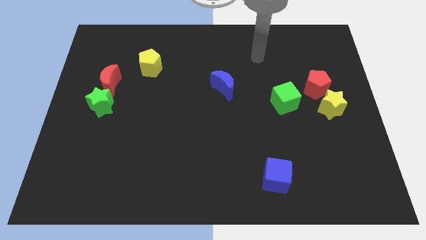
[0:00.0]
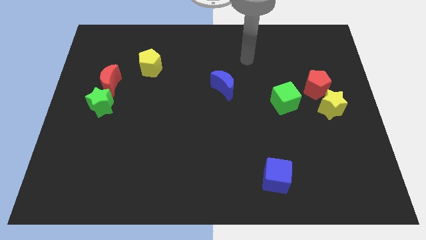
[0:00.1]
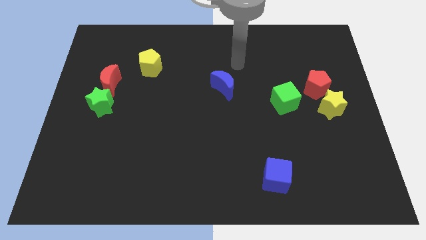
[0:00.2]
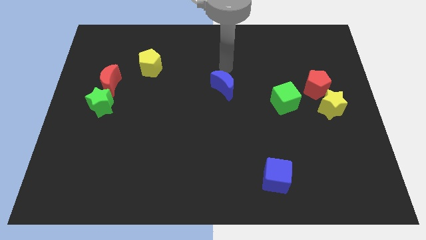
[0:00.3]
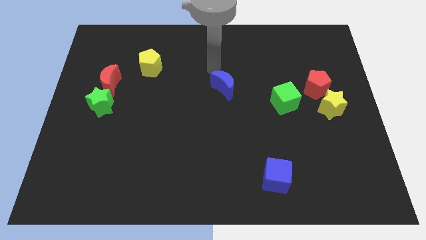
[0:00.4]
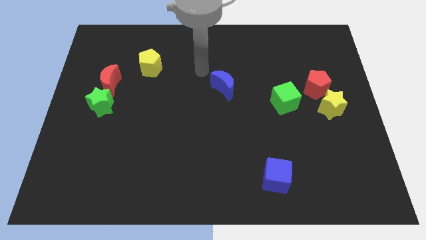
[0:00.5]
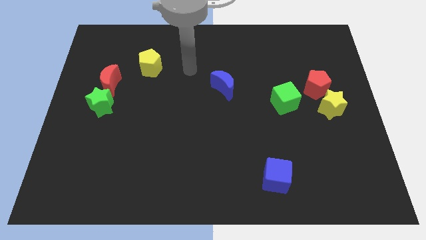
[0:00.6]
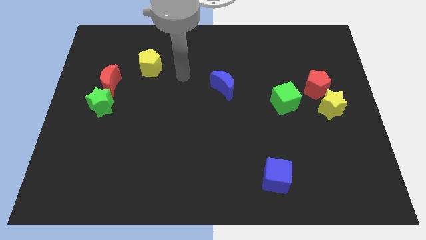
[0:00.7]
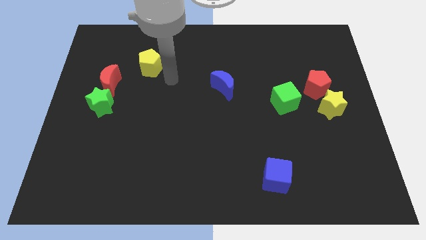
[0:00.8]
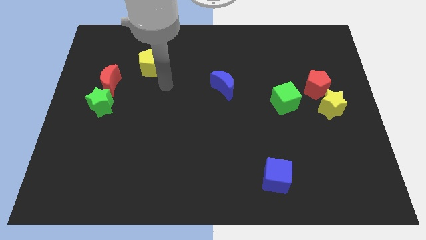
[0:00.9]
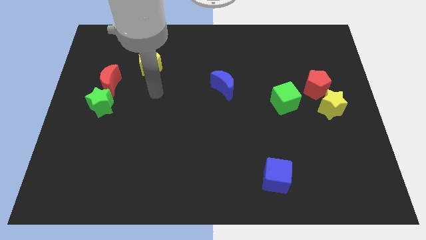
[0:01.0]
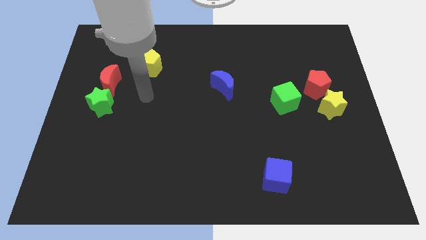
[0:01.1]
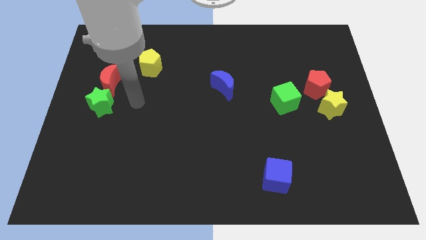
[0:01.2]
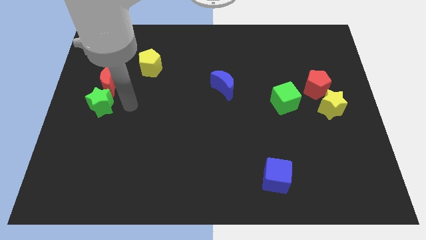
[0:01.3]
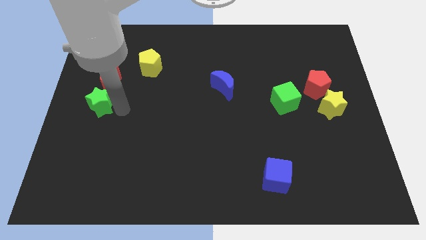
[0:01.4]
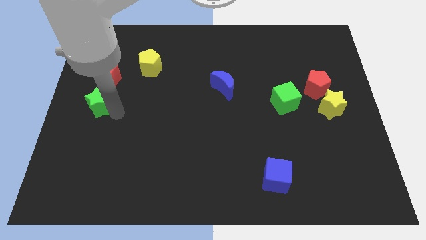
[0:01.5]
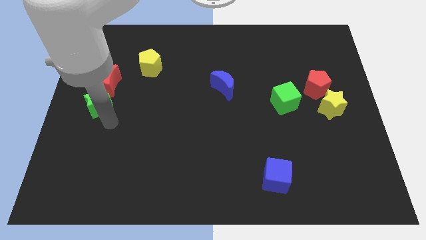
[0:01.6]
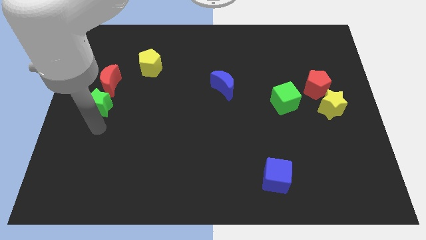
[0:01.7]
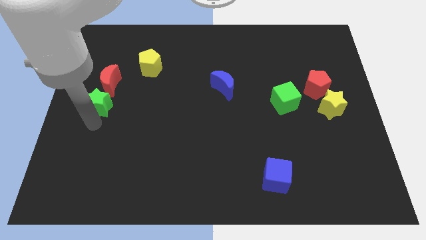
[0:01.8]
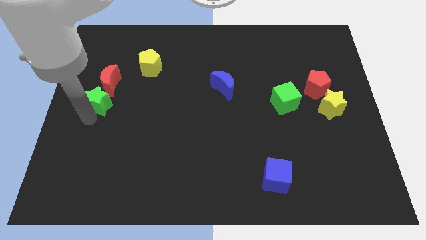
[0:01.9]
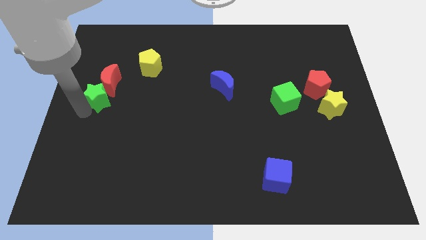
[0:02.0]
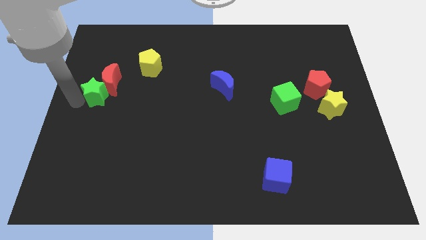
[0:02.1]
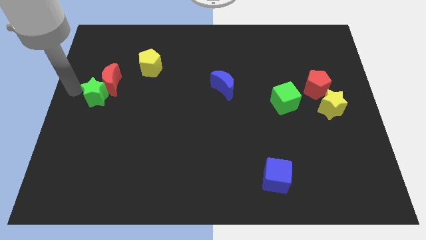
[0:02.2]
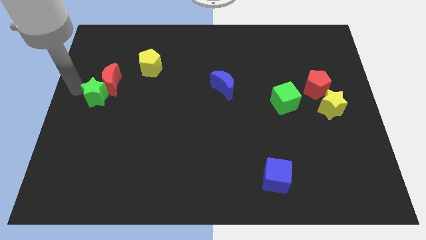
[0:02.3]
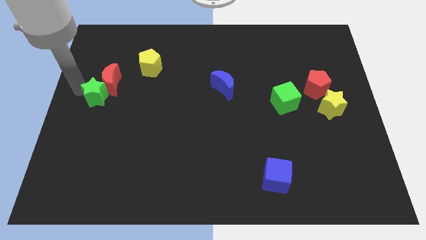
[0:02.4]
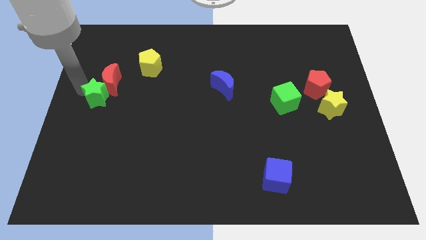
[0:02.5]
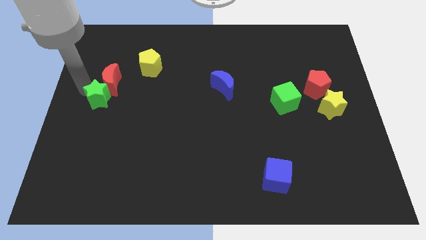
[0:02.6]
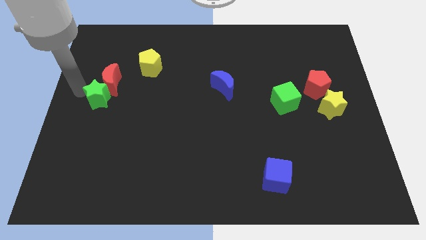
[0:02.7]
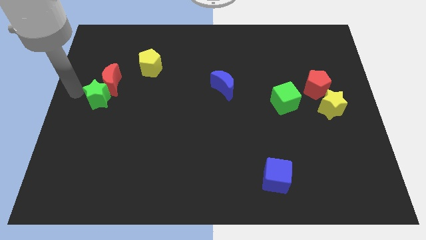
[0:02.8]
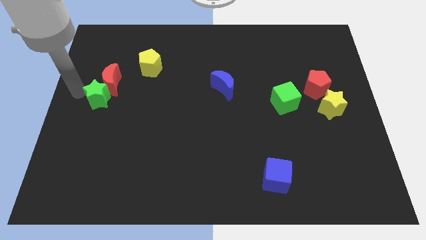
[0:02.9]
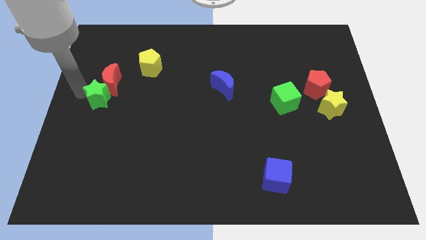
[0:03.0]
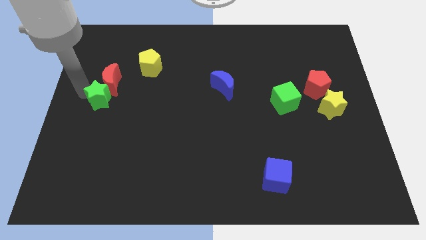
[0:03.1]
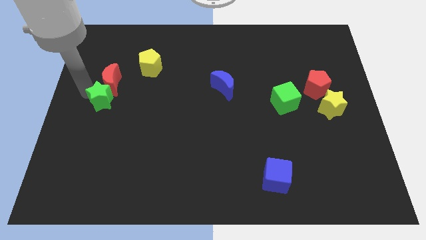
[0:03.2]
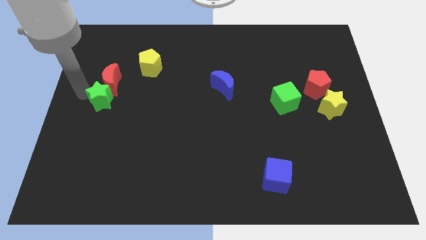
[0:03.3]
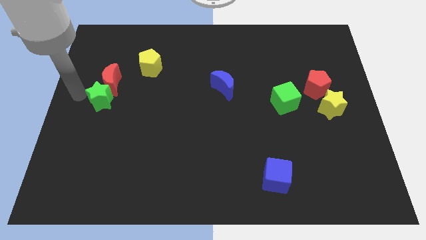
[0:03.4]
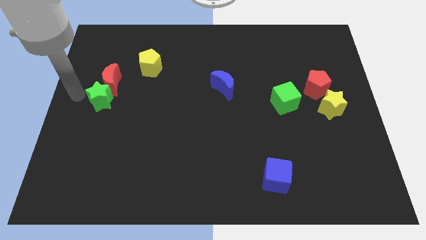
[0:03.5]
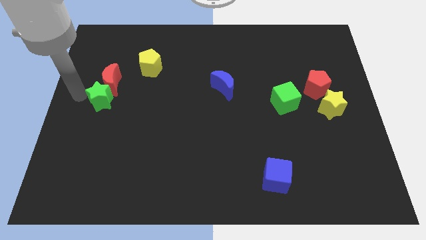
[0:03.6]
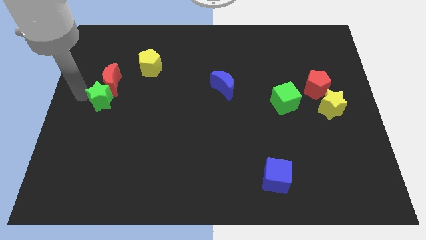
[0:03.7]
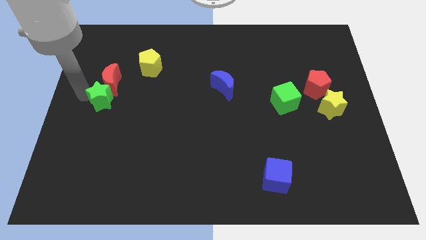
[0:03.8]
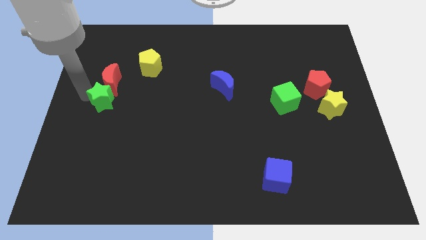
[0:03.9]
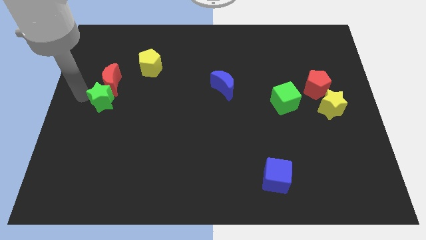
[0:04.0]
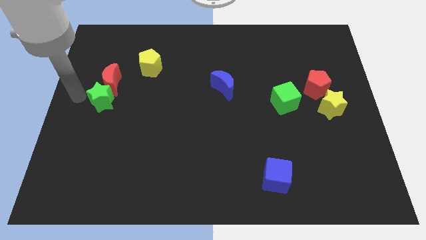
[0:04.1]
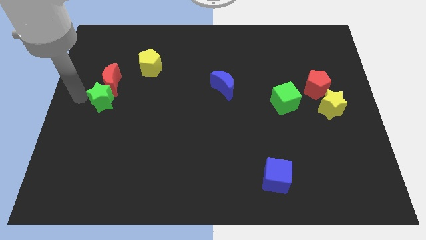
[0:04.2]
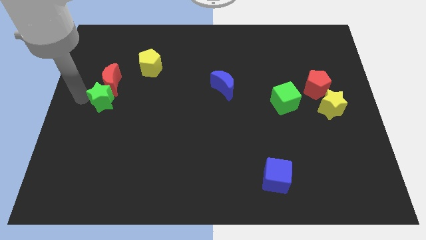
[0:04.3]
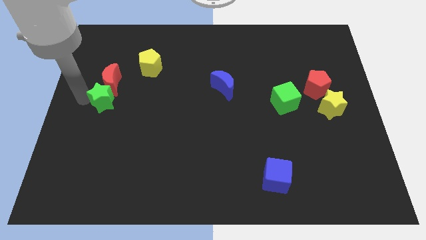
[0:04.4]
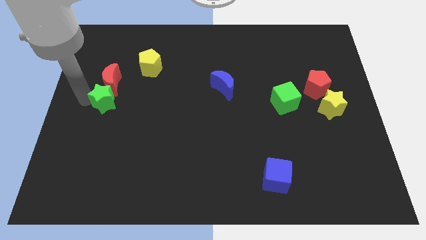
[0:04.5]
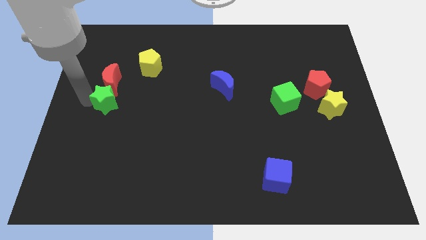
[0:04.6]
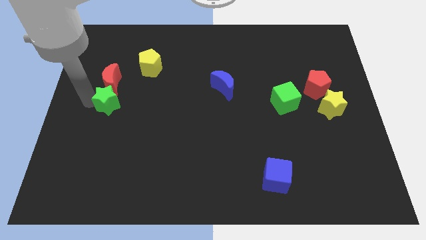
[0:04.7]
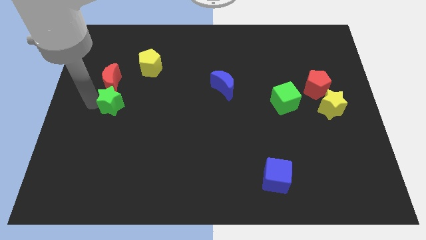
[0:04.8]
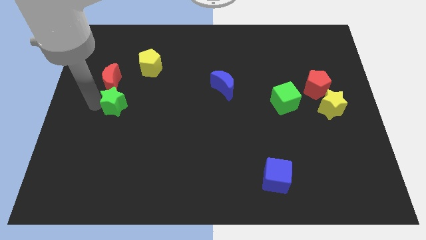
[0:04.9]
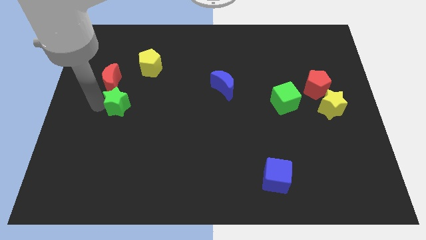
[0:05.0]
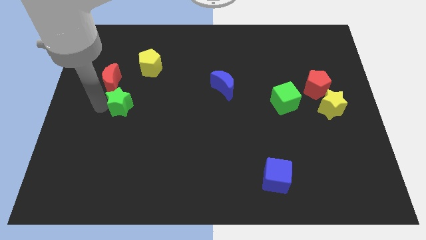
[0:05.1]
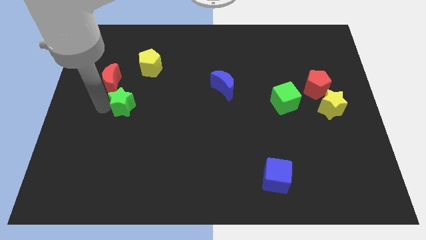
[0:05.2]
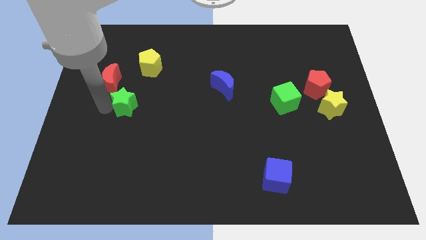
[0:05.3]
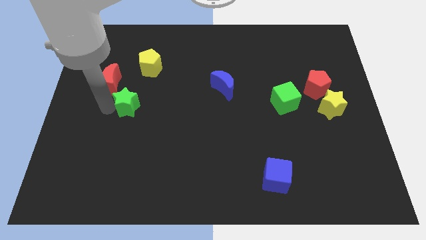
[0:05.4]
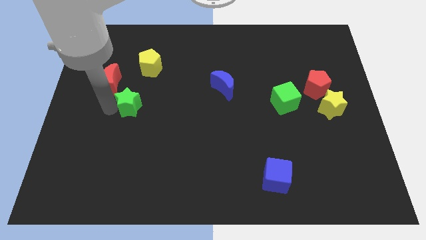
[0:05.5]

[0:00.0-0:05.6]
slide the green star a little to the right

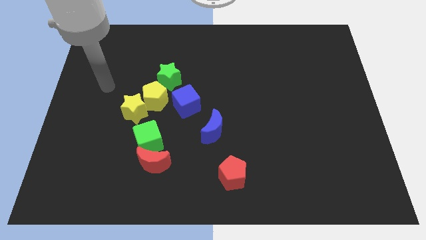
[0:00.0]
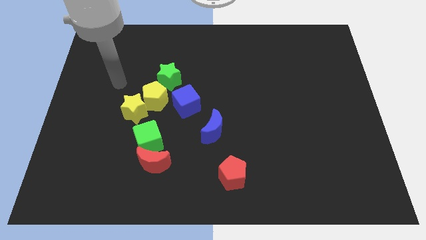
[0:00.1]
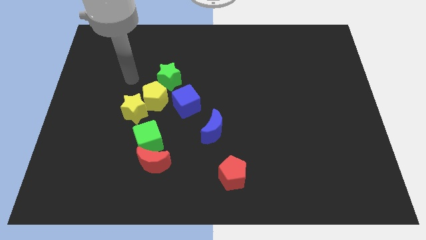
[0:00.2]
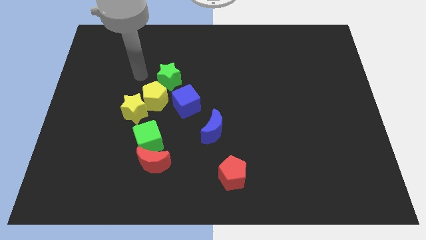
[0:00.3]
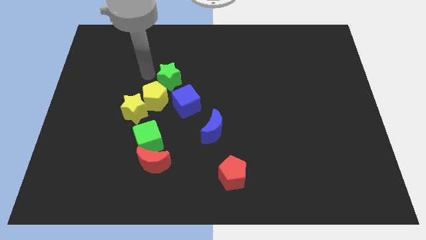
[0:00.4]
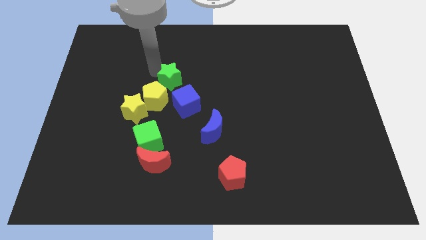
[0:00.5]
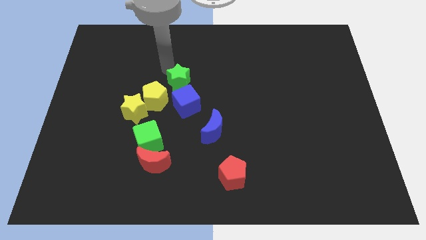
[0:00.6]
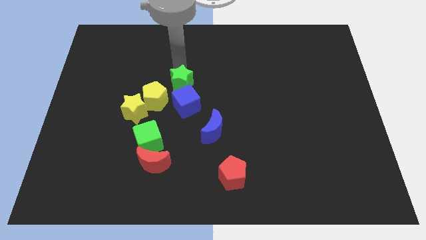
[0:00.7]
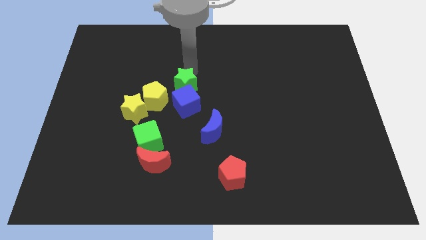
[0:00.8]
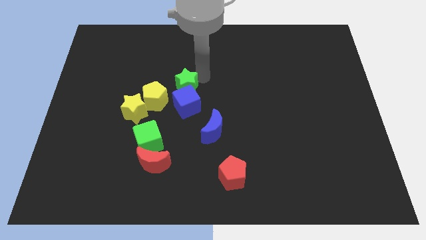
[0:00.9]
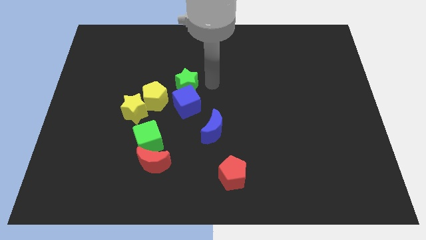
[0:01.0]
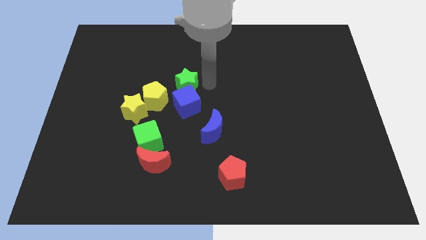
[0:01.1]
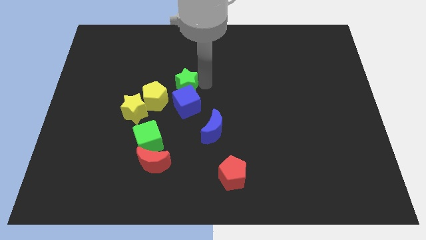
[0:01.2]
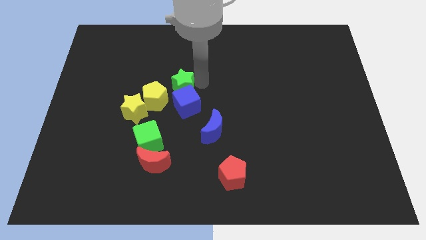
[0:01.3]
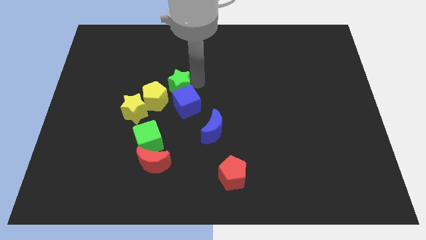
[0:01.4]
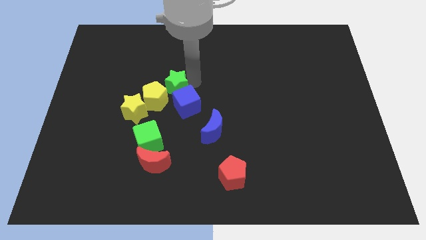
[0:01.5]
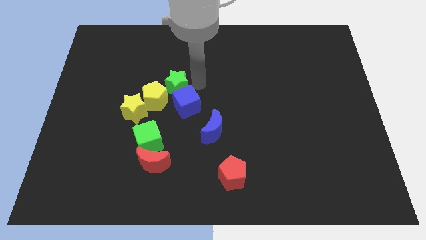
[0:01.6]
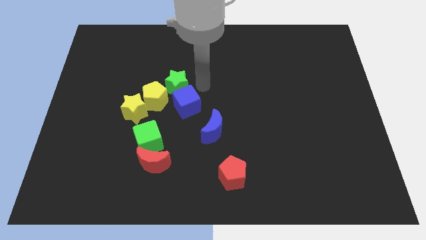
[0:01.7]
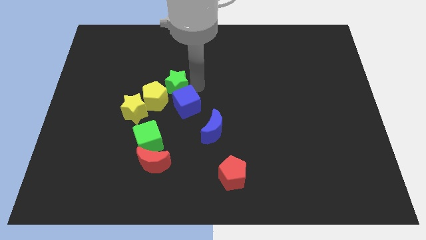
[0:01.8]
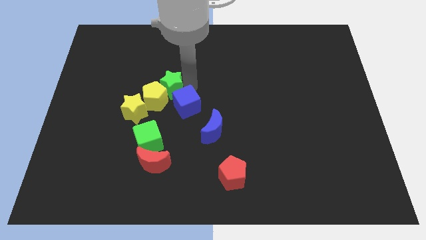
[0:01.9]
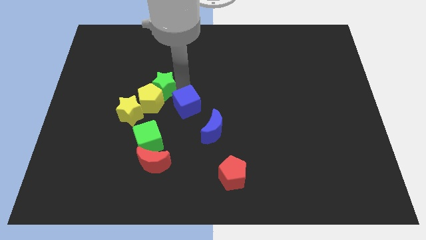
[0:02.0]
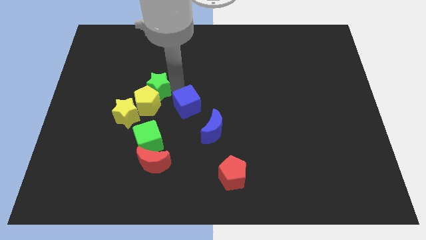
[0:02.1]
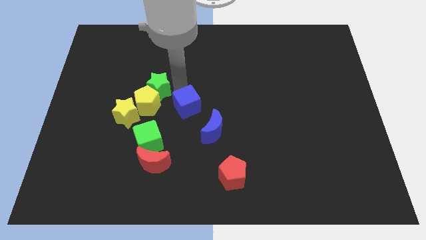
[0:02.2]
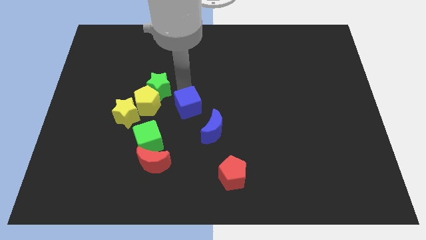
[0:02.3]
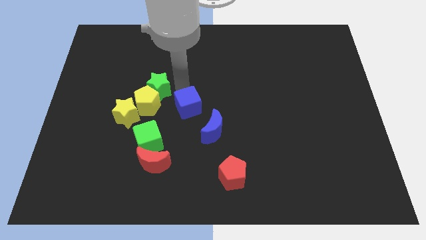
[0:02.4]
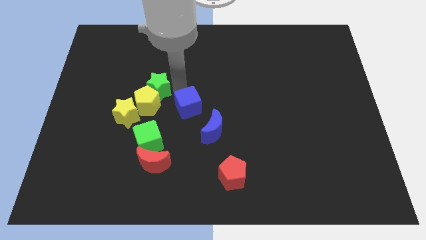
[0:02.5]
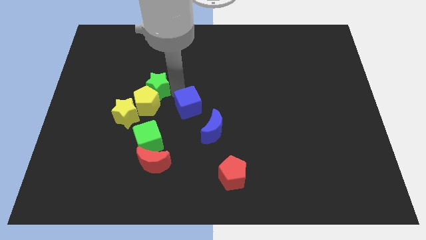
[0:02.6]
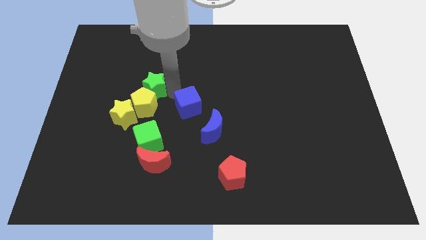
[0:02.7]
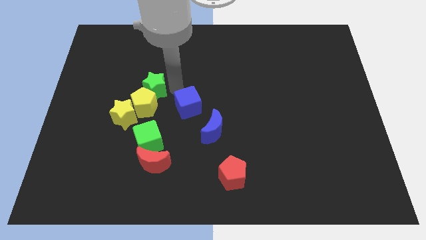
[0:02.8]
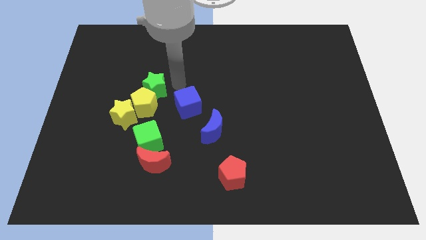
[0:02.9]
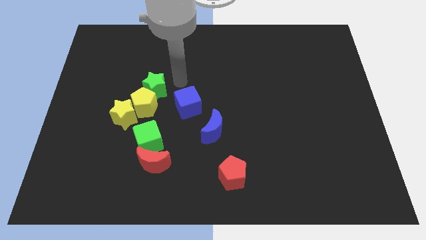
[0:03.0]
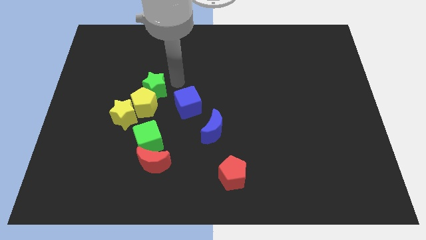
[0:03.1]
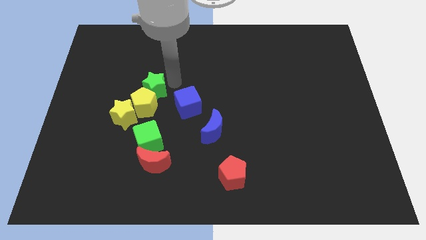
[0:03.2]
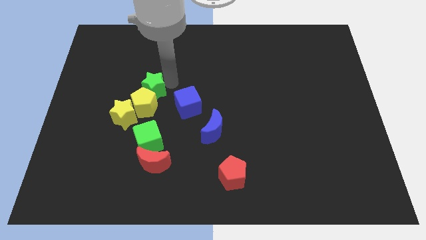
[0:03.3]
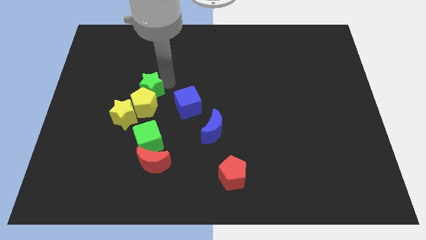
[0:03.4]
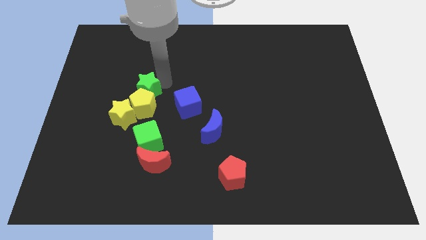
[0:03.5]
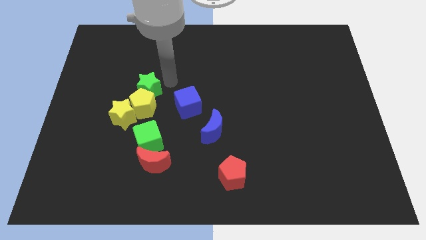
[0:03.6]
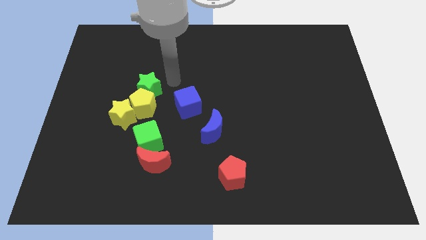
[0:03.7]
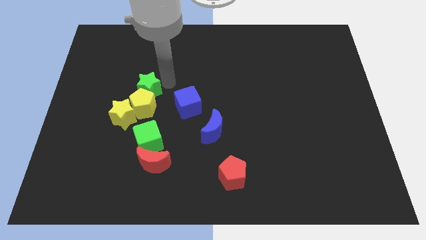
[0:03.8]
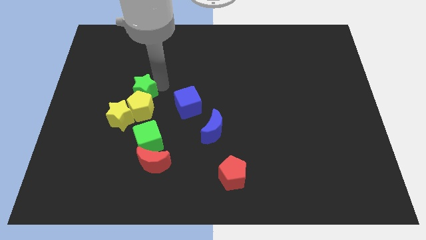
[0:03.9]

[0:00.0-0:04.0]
slightly push the green star diagonally down and left
